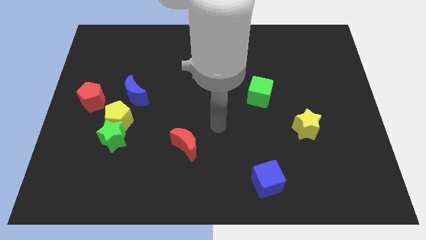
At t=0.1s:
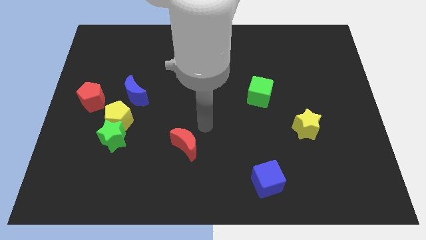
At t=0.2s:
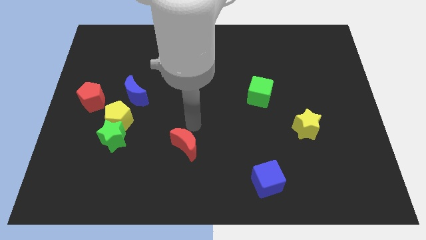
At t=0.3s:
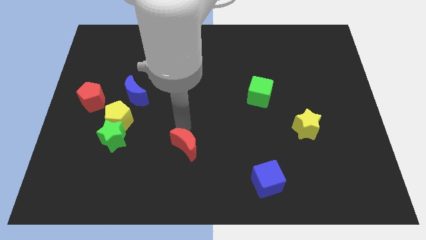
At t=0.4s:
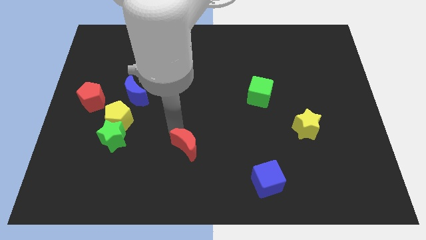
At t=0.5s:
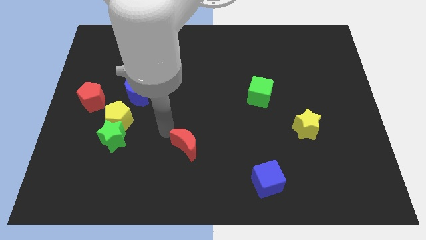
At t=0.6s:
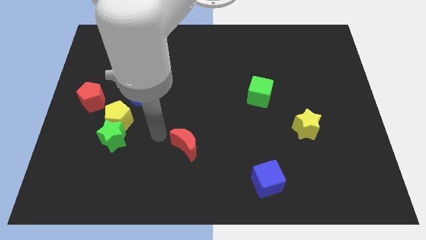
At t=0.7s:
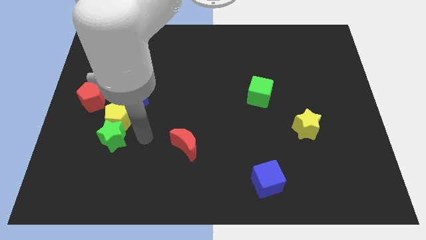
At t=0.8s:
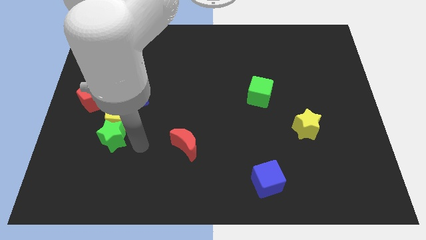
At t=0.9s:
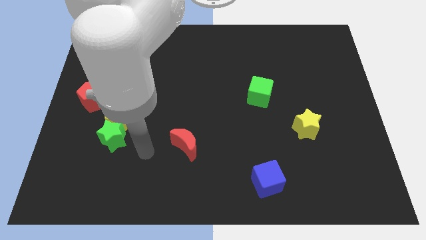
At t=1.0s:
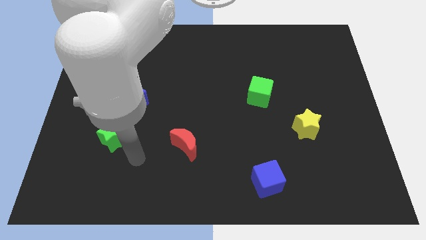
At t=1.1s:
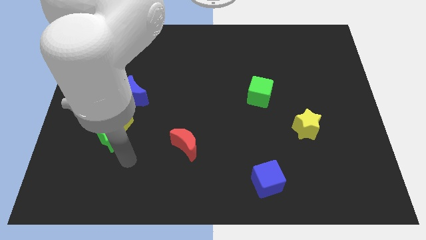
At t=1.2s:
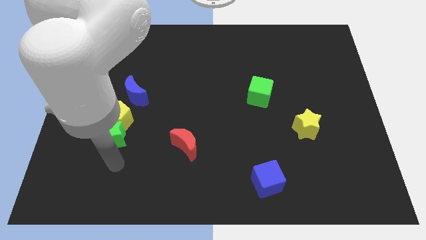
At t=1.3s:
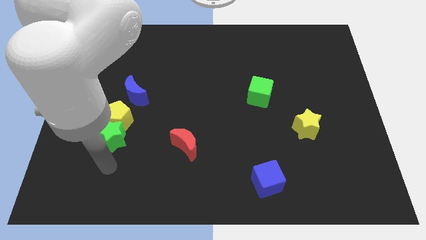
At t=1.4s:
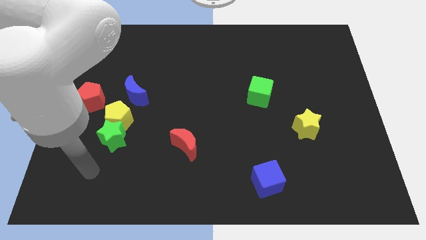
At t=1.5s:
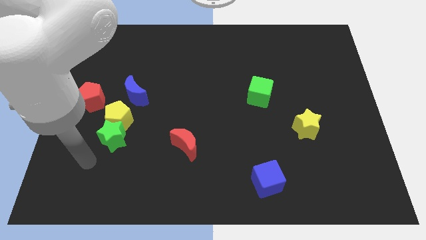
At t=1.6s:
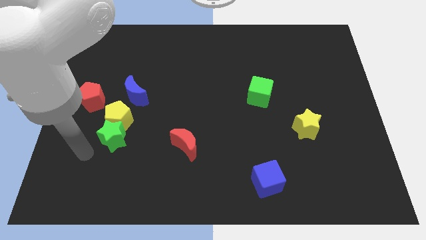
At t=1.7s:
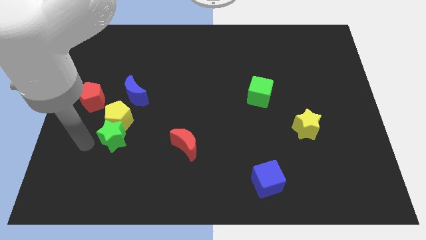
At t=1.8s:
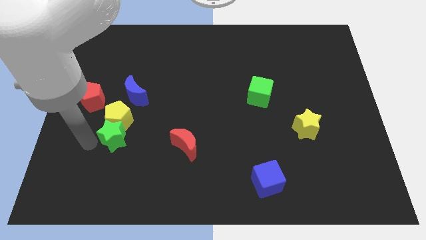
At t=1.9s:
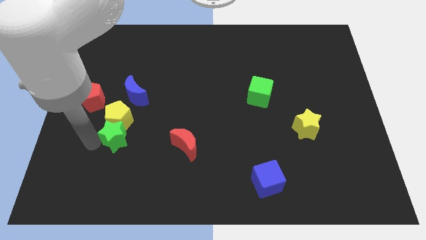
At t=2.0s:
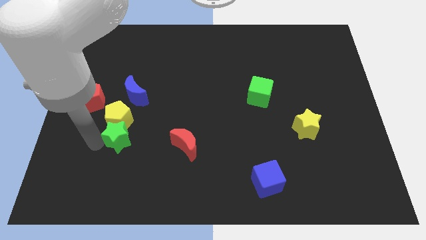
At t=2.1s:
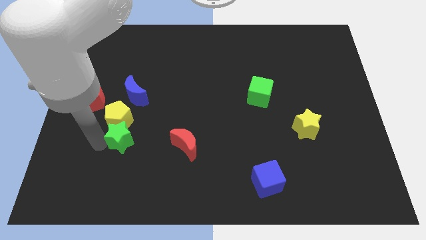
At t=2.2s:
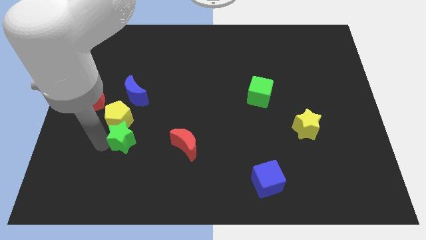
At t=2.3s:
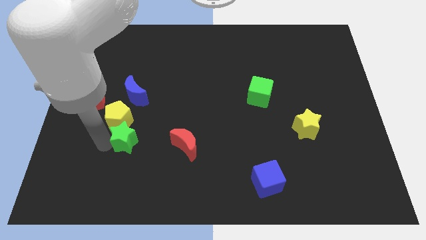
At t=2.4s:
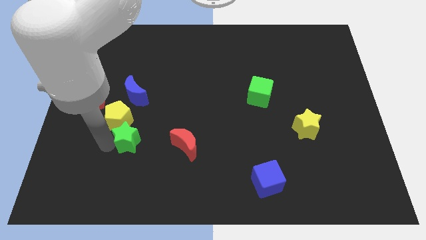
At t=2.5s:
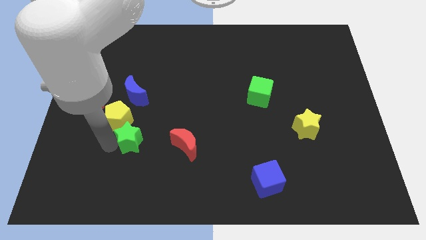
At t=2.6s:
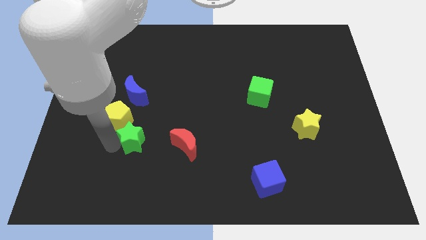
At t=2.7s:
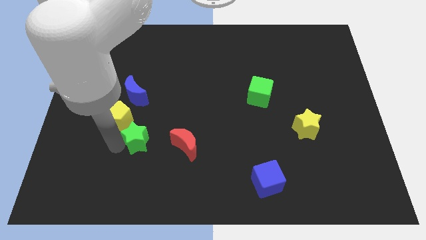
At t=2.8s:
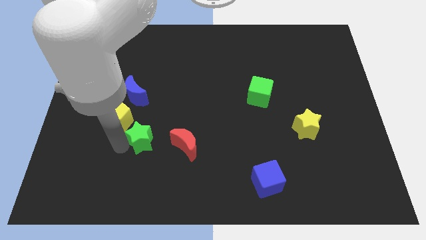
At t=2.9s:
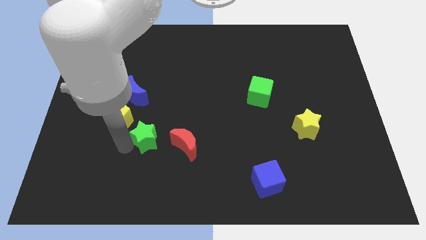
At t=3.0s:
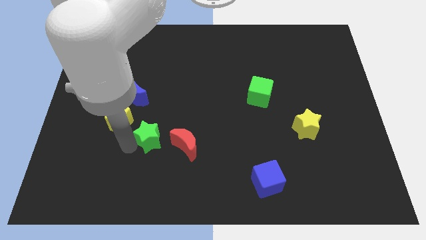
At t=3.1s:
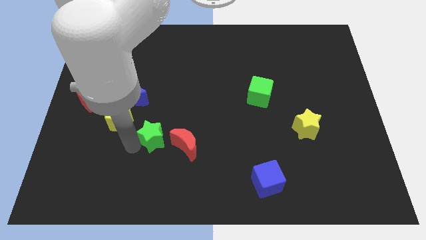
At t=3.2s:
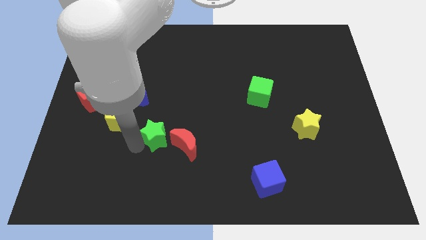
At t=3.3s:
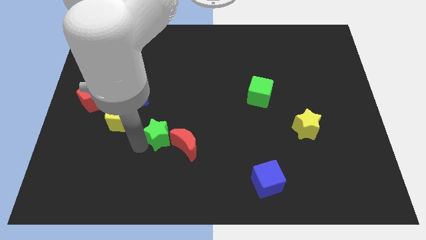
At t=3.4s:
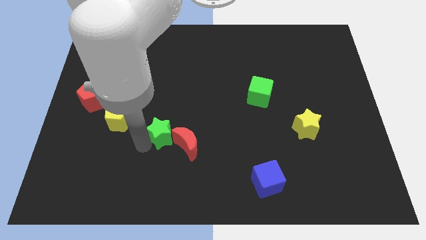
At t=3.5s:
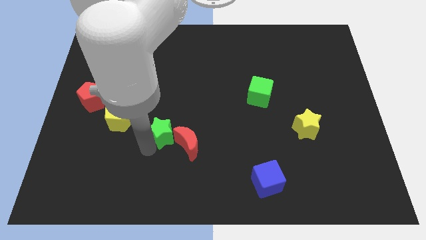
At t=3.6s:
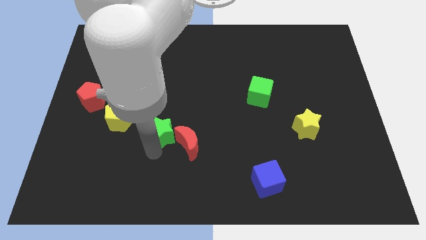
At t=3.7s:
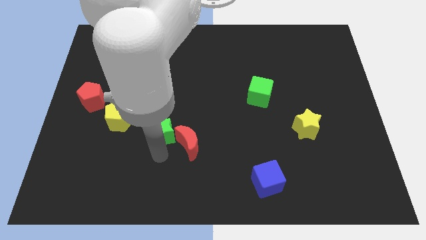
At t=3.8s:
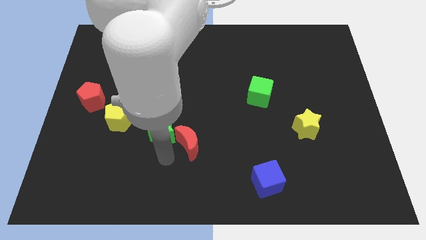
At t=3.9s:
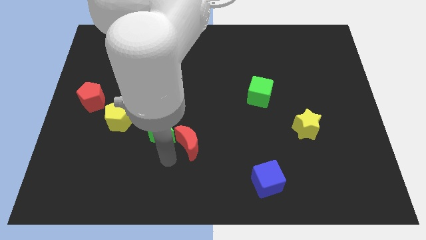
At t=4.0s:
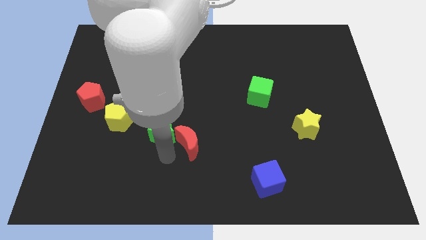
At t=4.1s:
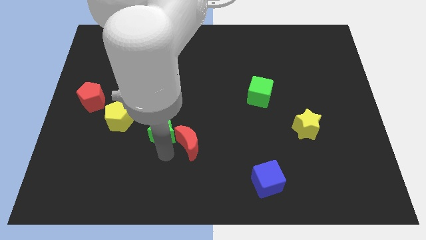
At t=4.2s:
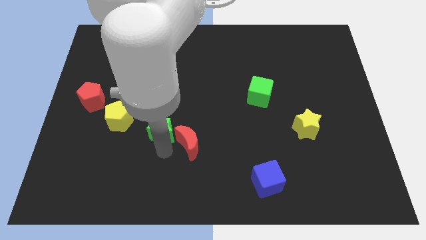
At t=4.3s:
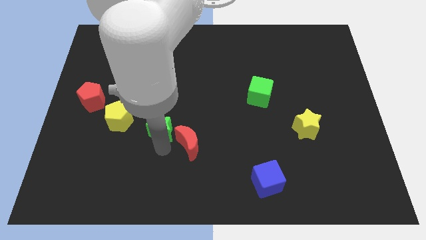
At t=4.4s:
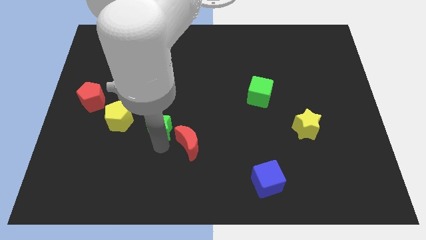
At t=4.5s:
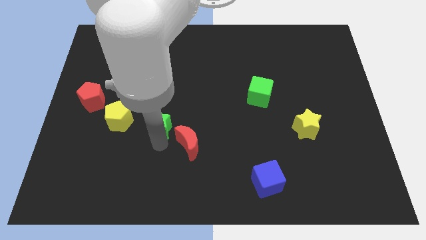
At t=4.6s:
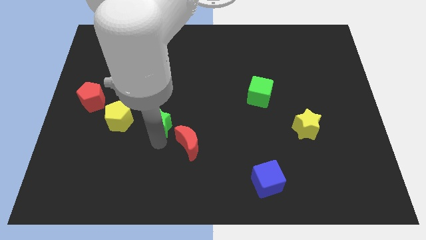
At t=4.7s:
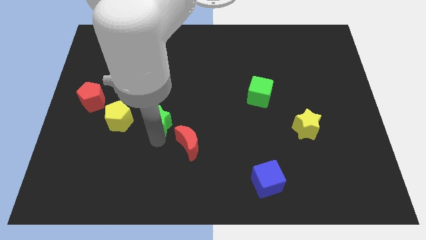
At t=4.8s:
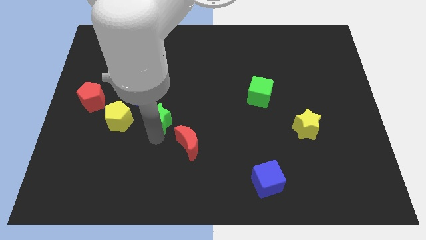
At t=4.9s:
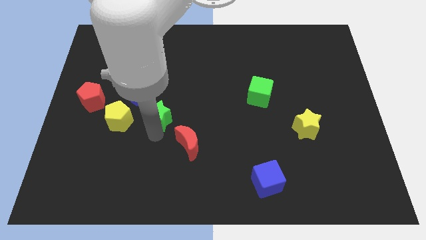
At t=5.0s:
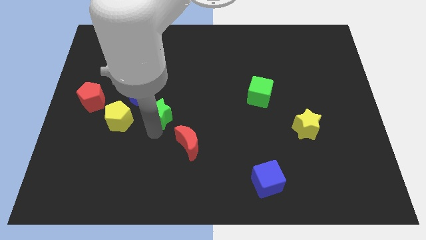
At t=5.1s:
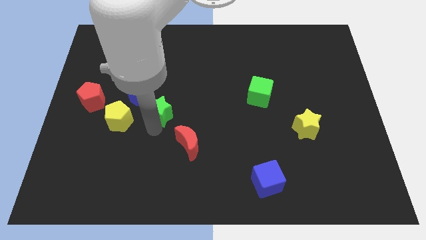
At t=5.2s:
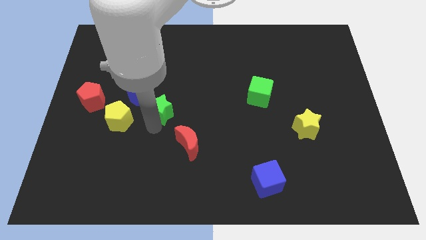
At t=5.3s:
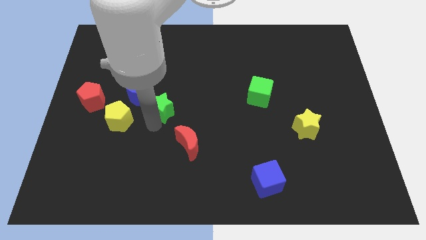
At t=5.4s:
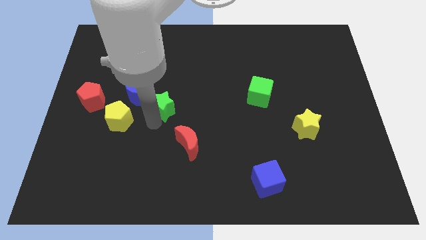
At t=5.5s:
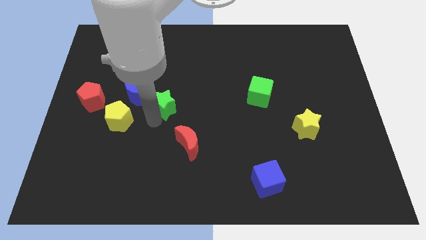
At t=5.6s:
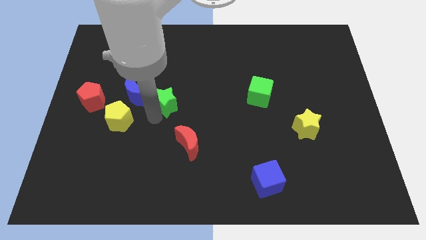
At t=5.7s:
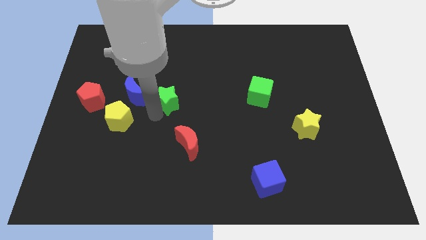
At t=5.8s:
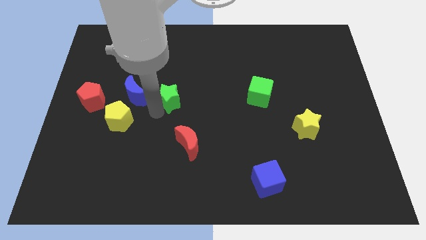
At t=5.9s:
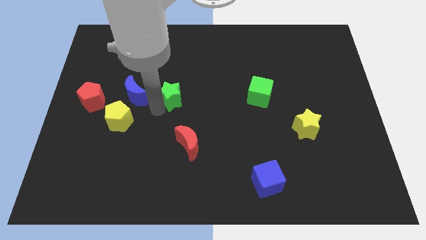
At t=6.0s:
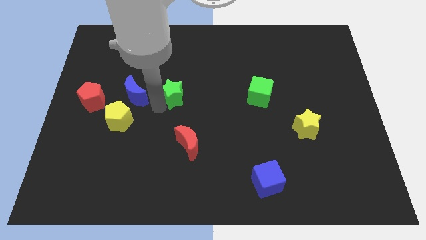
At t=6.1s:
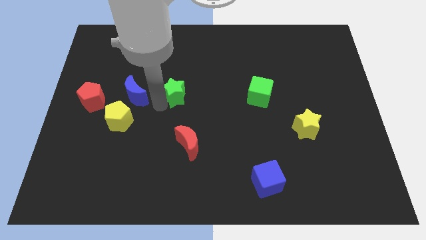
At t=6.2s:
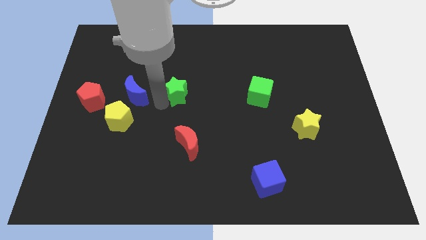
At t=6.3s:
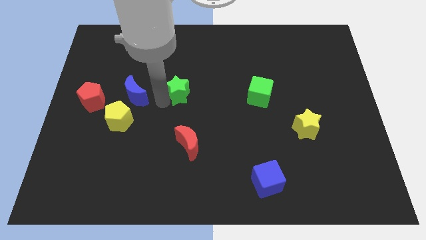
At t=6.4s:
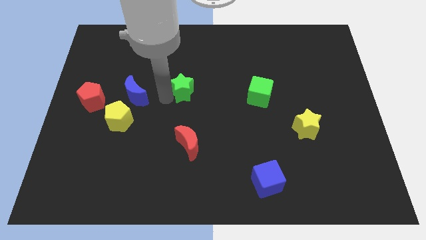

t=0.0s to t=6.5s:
move the green star diagonally up and to the right

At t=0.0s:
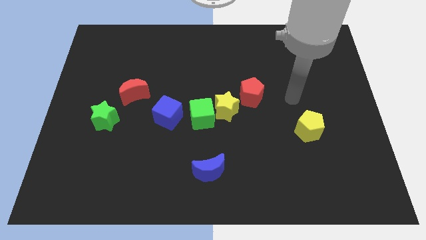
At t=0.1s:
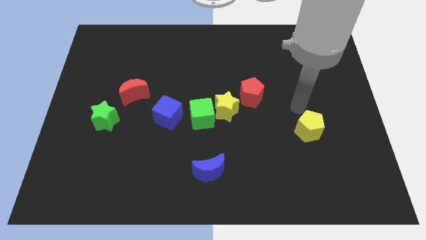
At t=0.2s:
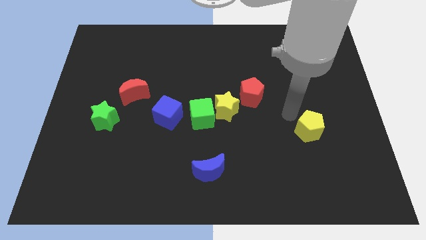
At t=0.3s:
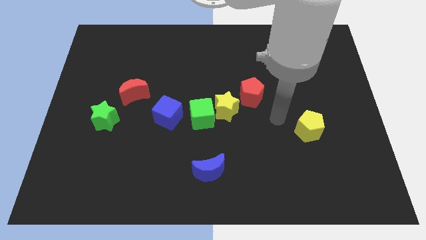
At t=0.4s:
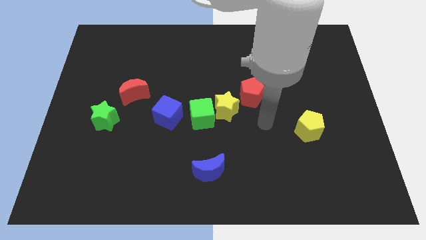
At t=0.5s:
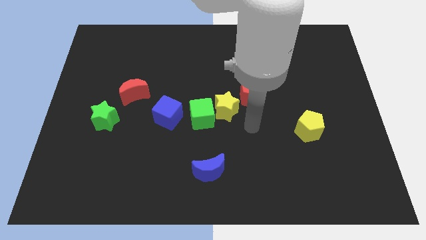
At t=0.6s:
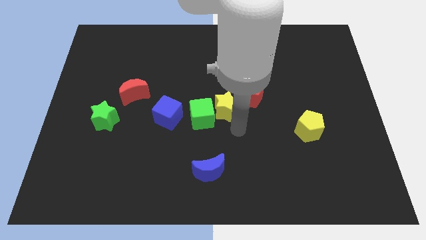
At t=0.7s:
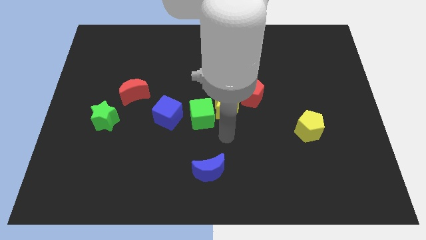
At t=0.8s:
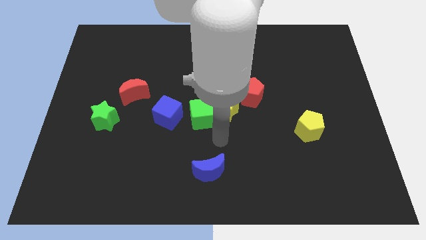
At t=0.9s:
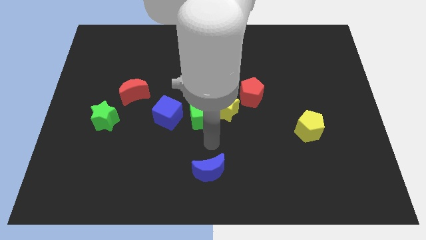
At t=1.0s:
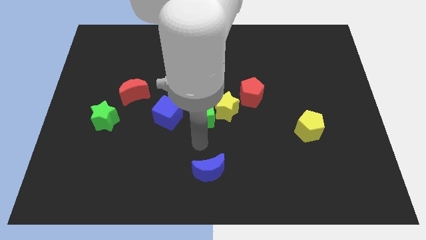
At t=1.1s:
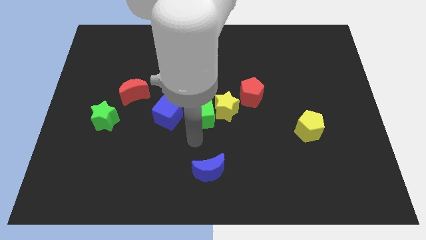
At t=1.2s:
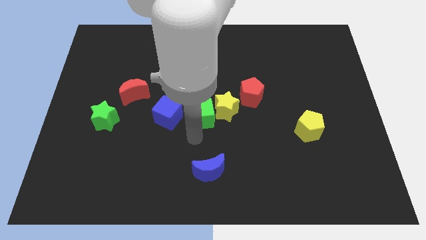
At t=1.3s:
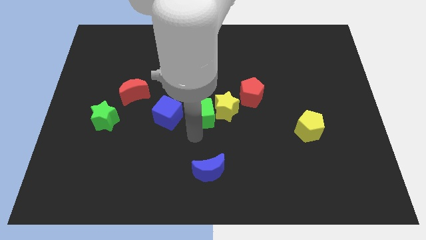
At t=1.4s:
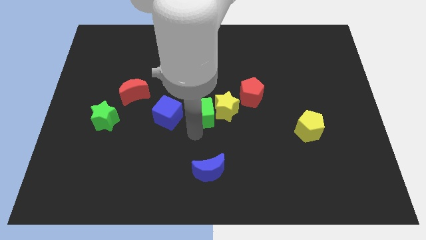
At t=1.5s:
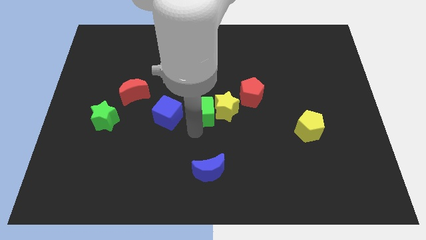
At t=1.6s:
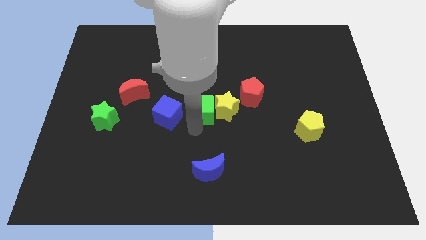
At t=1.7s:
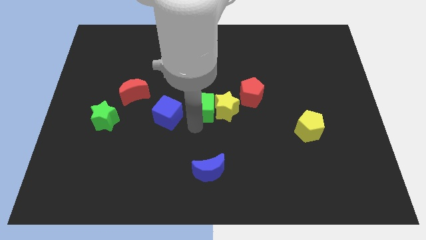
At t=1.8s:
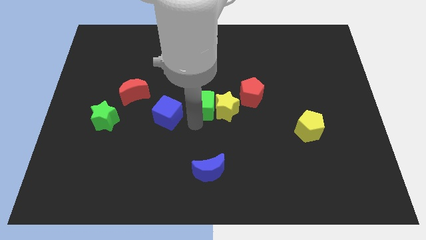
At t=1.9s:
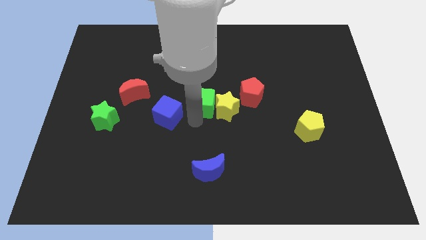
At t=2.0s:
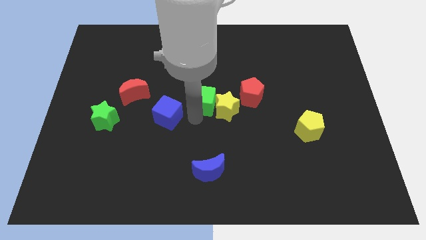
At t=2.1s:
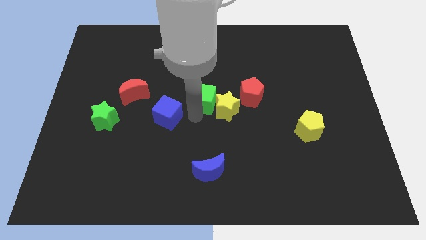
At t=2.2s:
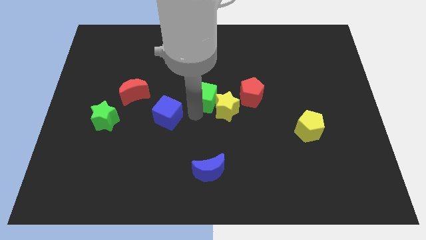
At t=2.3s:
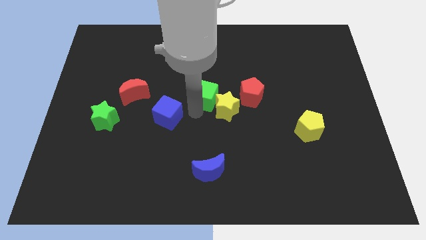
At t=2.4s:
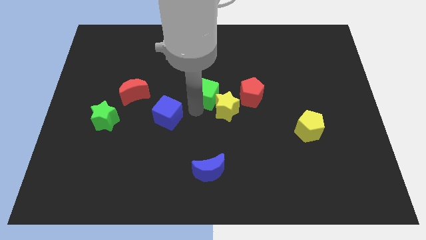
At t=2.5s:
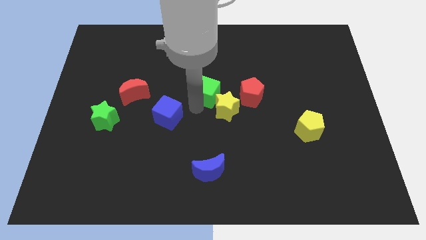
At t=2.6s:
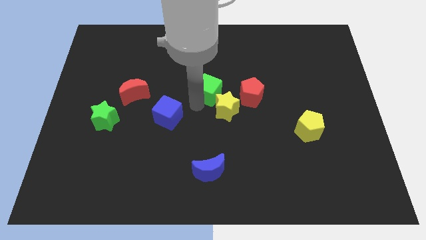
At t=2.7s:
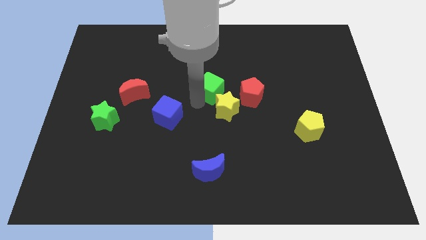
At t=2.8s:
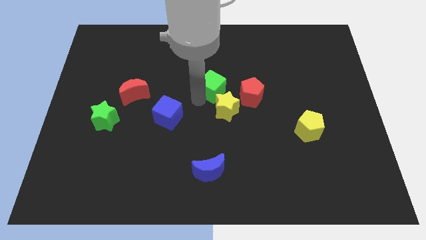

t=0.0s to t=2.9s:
move the green cube a little bit up and to the right diagonally
